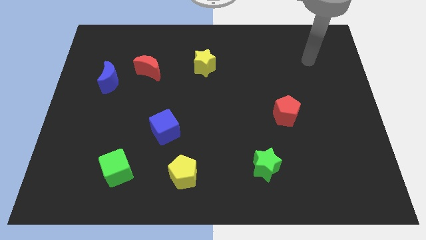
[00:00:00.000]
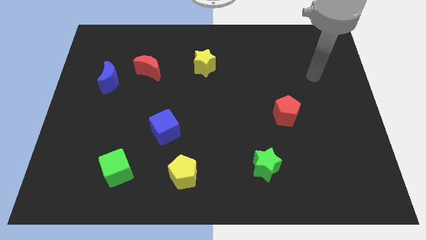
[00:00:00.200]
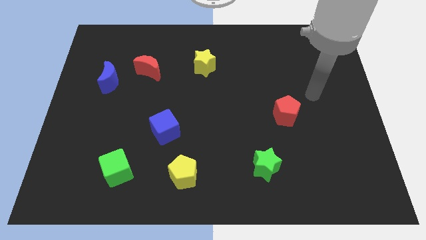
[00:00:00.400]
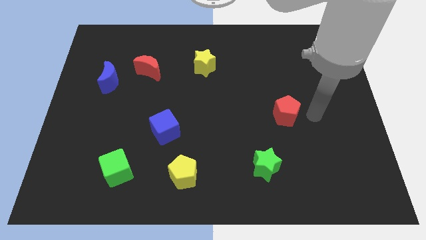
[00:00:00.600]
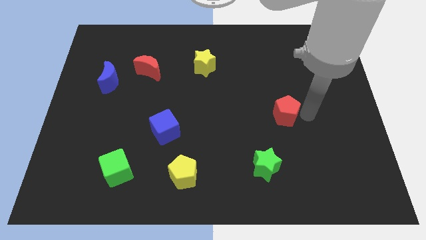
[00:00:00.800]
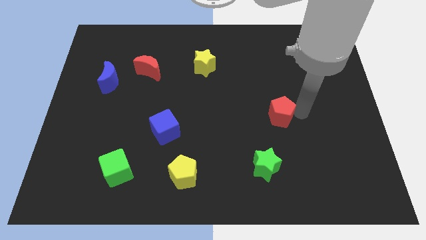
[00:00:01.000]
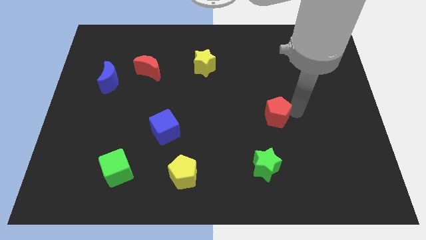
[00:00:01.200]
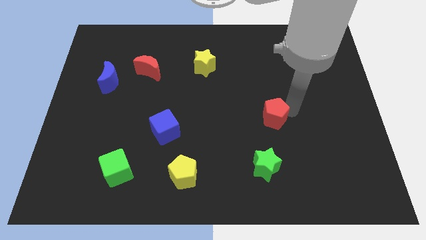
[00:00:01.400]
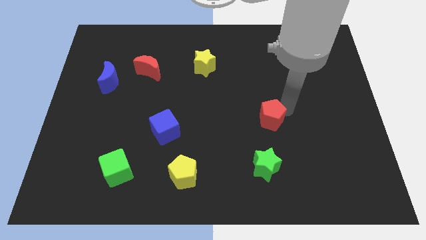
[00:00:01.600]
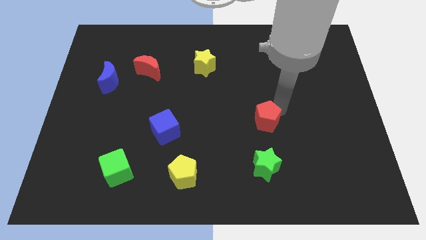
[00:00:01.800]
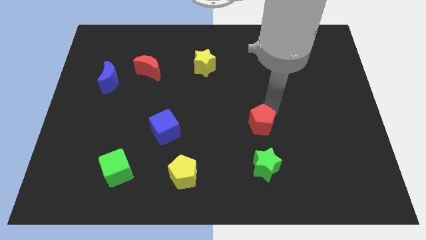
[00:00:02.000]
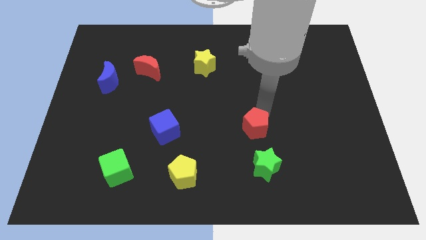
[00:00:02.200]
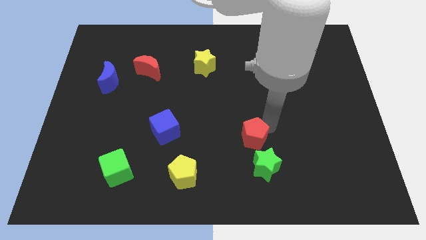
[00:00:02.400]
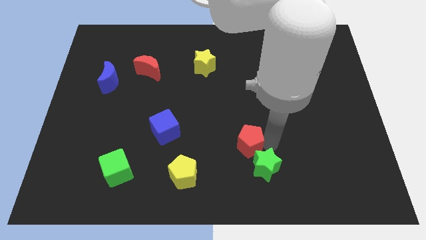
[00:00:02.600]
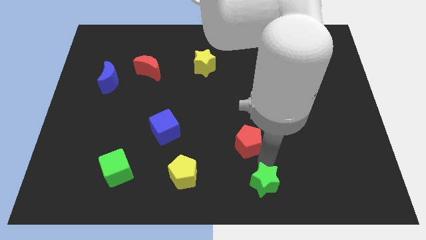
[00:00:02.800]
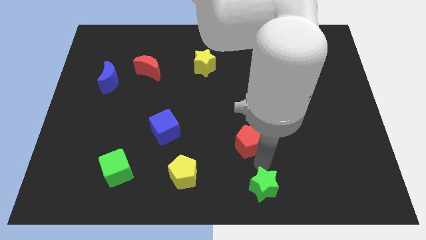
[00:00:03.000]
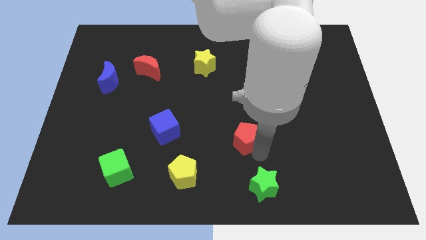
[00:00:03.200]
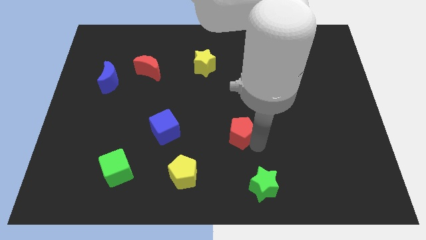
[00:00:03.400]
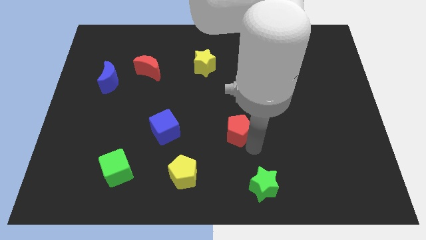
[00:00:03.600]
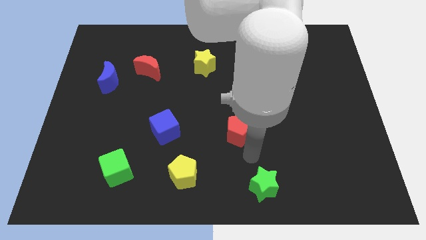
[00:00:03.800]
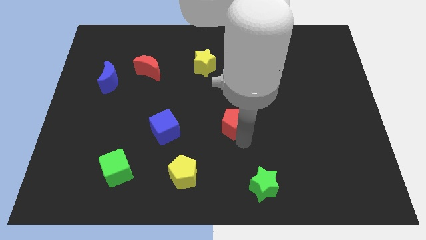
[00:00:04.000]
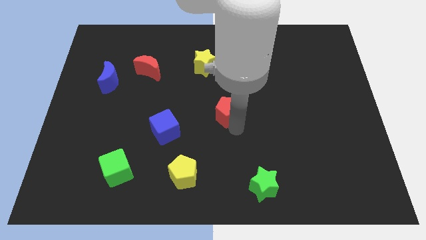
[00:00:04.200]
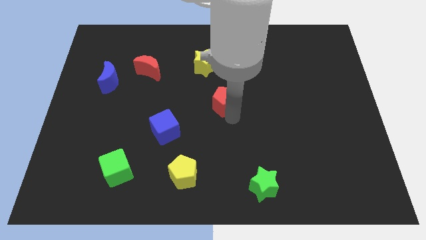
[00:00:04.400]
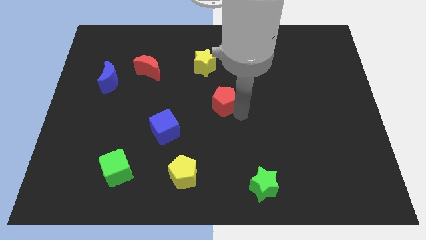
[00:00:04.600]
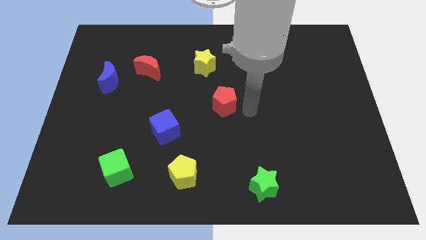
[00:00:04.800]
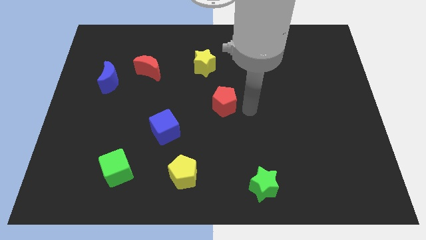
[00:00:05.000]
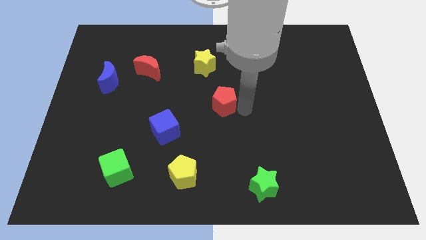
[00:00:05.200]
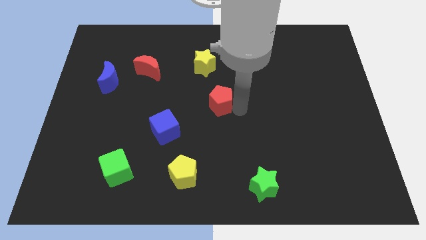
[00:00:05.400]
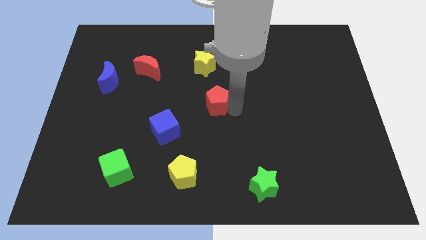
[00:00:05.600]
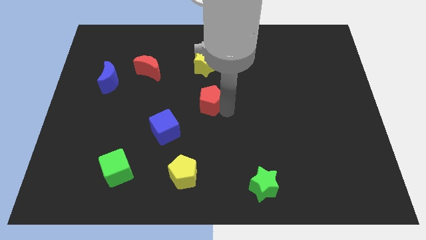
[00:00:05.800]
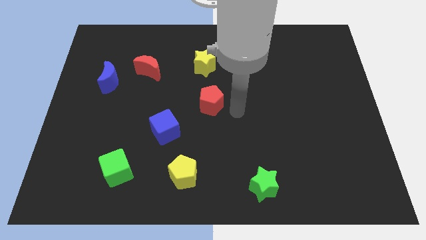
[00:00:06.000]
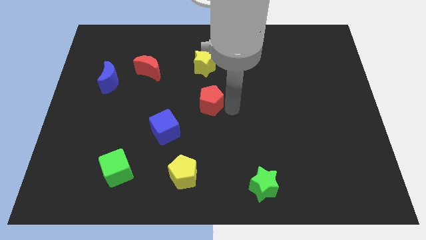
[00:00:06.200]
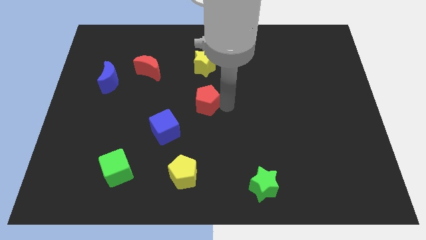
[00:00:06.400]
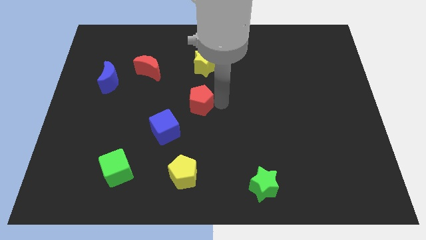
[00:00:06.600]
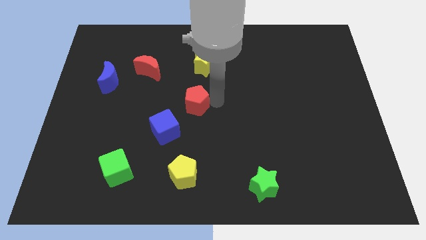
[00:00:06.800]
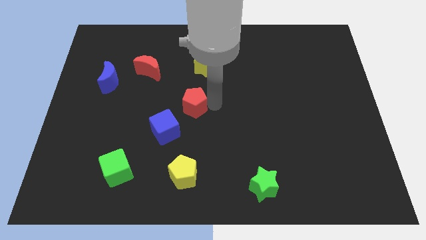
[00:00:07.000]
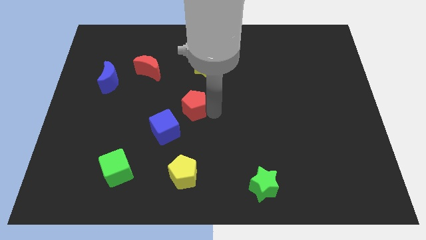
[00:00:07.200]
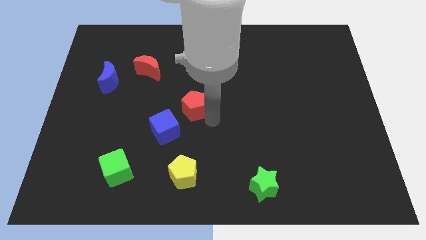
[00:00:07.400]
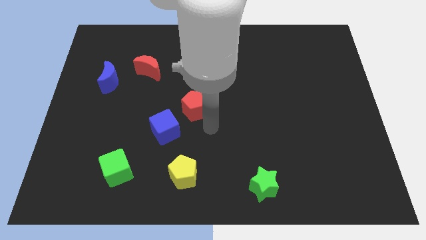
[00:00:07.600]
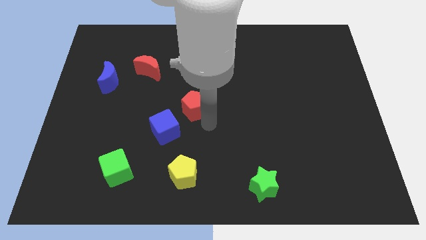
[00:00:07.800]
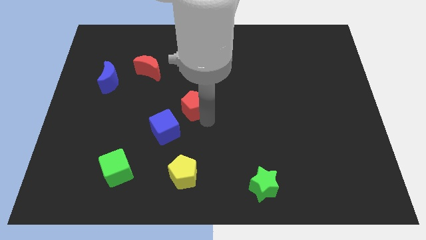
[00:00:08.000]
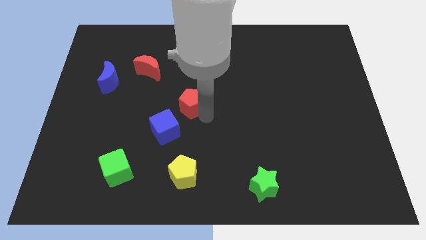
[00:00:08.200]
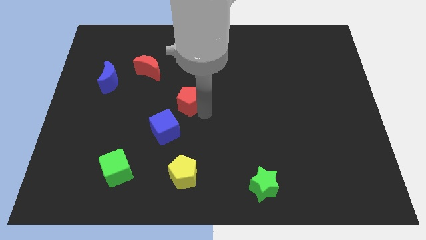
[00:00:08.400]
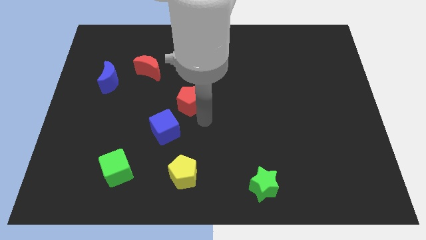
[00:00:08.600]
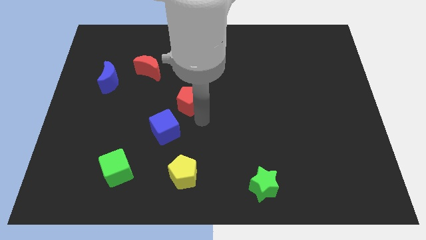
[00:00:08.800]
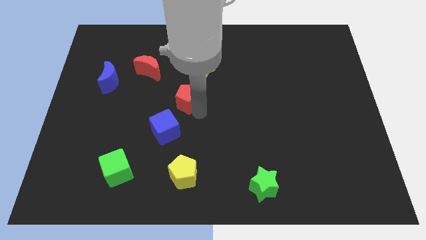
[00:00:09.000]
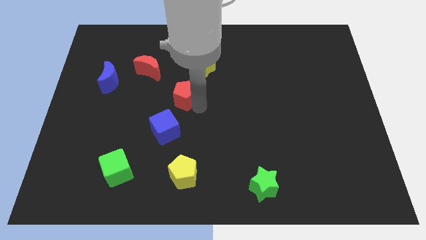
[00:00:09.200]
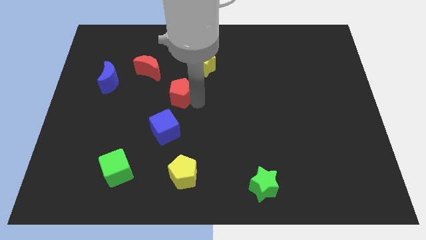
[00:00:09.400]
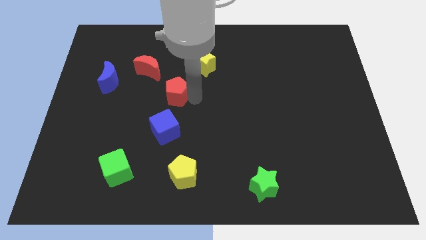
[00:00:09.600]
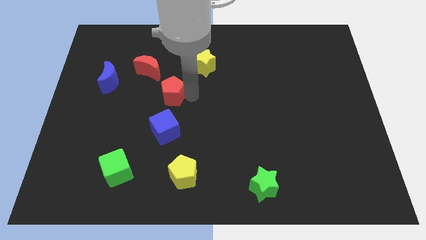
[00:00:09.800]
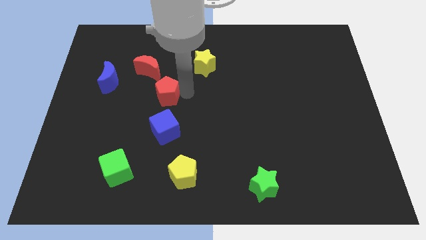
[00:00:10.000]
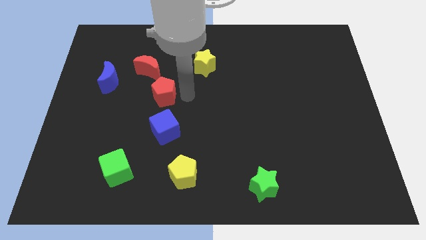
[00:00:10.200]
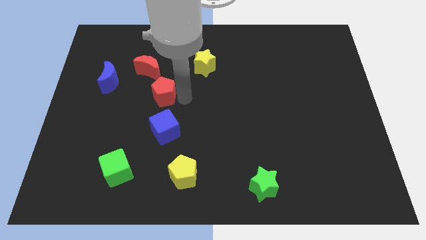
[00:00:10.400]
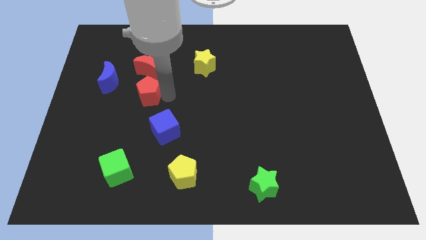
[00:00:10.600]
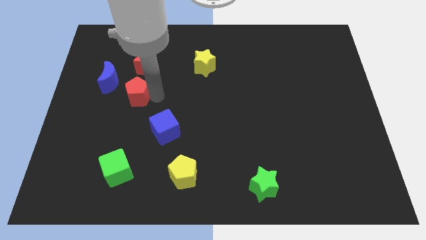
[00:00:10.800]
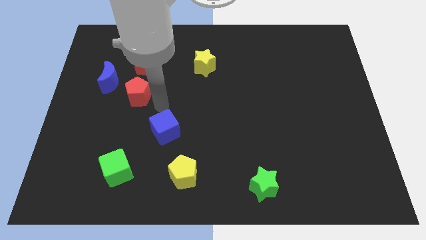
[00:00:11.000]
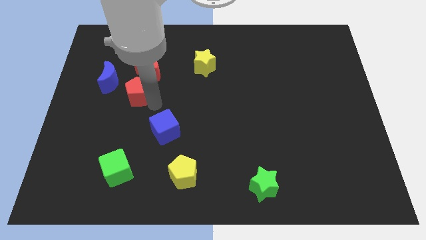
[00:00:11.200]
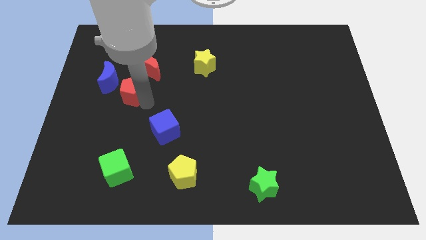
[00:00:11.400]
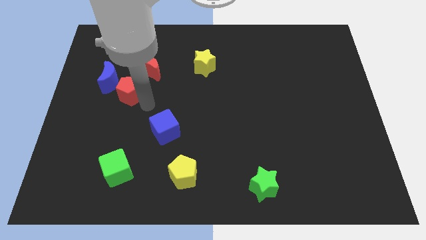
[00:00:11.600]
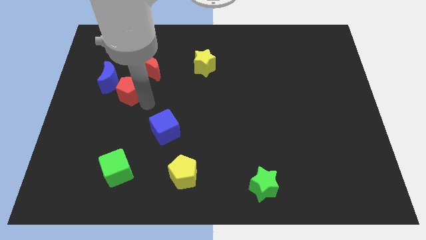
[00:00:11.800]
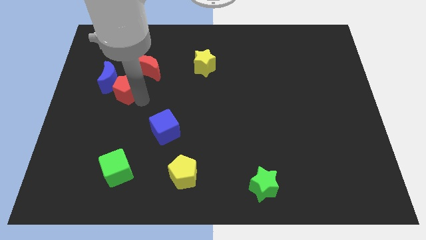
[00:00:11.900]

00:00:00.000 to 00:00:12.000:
push the red pentagon next to the blue moon
